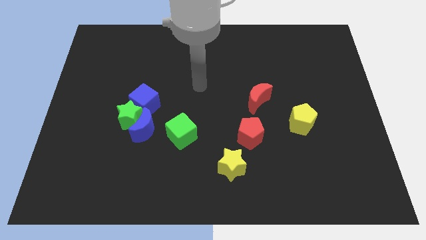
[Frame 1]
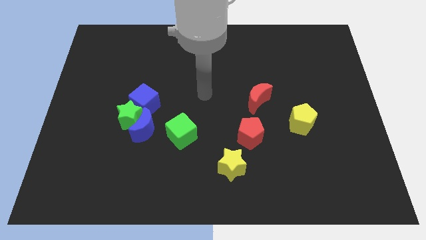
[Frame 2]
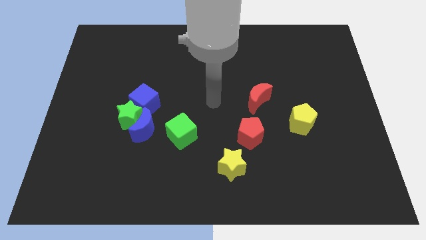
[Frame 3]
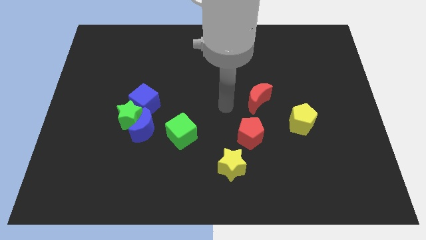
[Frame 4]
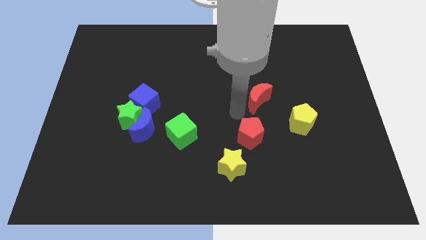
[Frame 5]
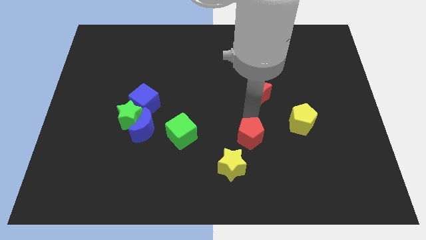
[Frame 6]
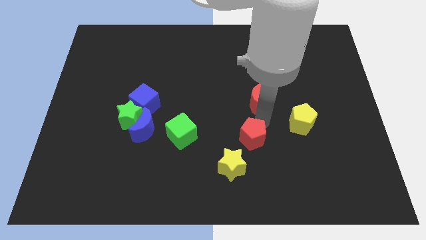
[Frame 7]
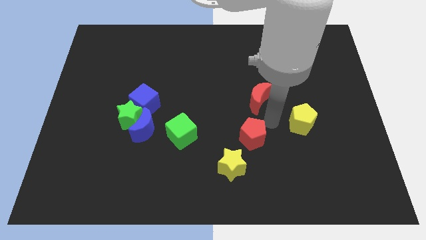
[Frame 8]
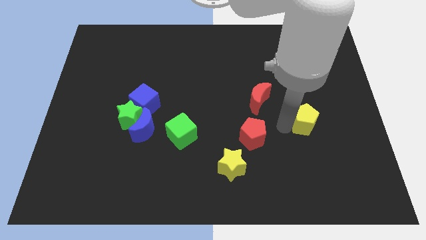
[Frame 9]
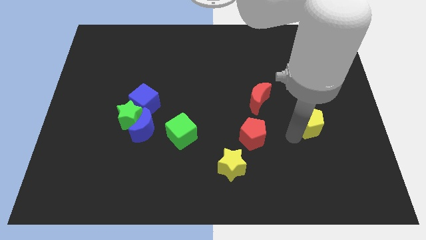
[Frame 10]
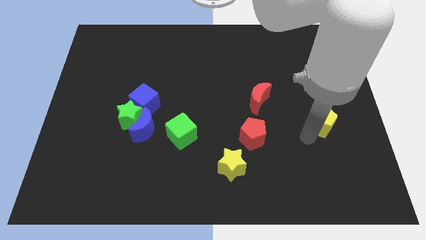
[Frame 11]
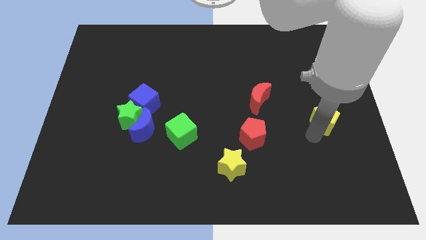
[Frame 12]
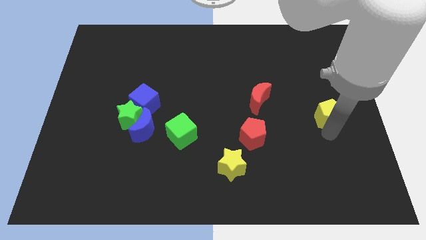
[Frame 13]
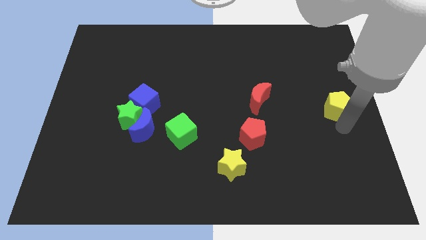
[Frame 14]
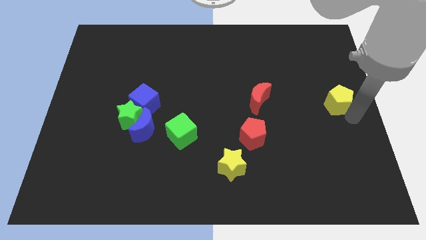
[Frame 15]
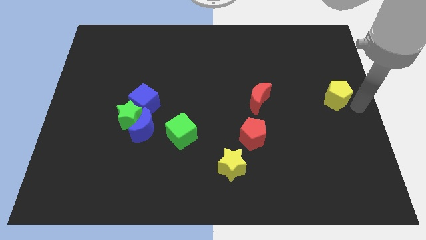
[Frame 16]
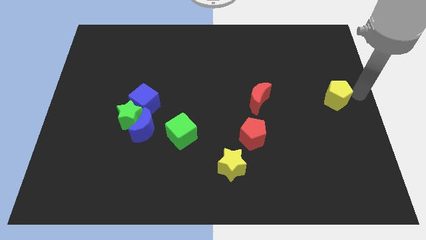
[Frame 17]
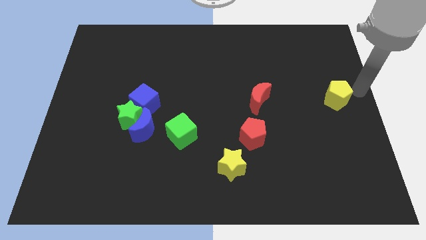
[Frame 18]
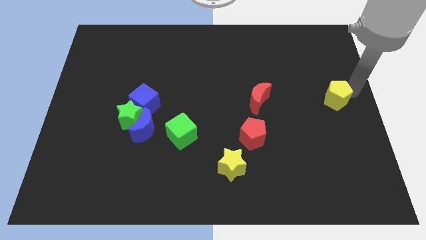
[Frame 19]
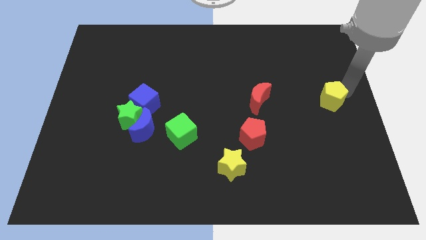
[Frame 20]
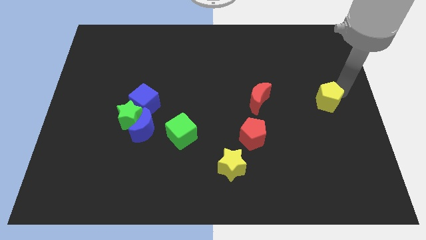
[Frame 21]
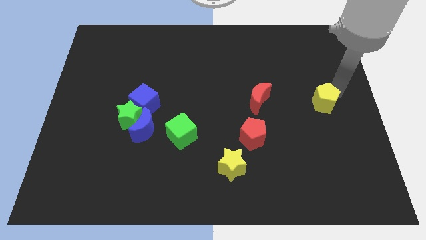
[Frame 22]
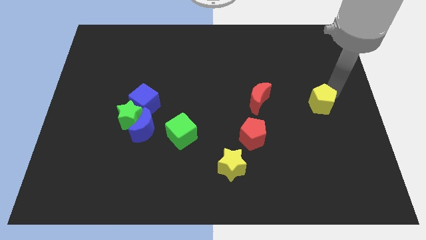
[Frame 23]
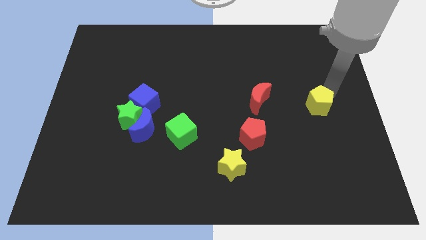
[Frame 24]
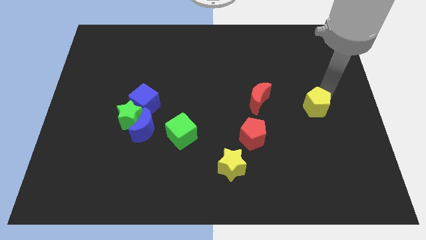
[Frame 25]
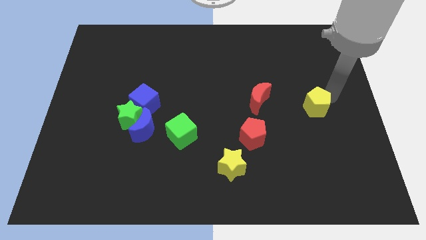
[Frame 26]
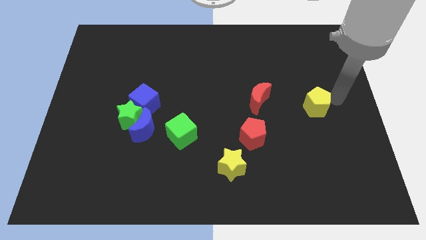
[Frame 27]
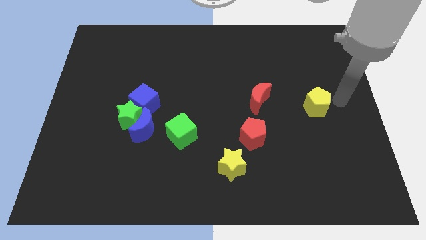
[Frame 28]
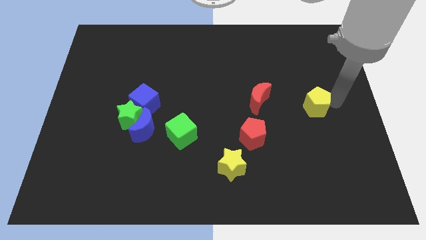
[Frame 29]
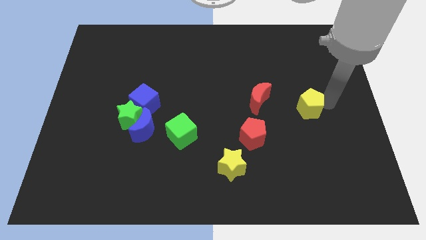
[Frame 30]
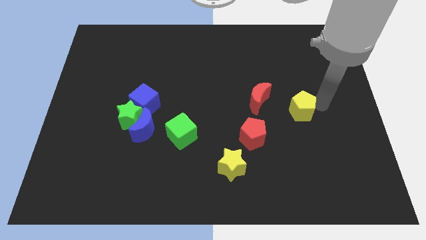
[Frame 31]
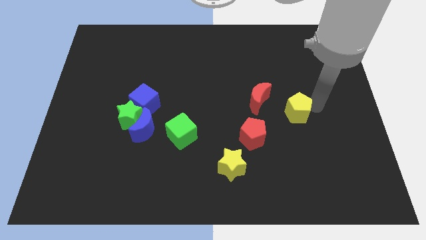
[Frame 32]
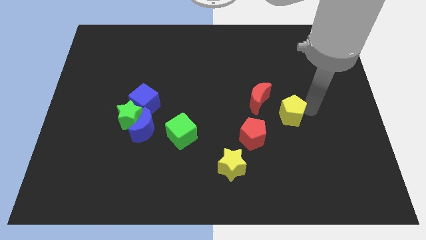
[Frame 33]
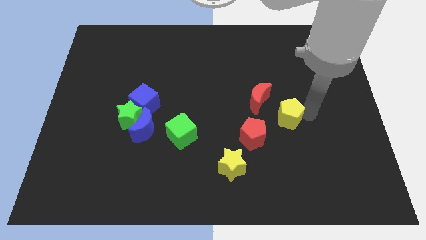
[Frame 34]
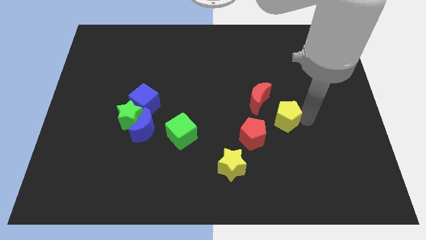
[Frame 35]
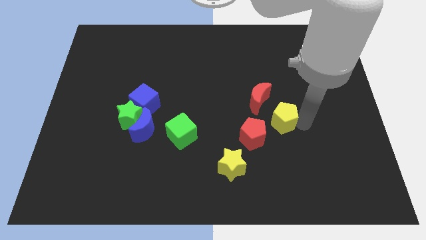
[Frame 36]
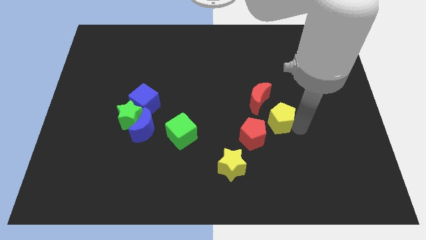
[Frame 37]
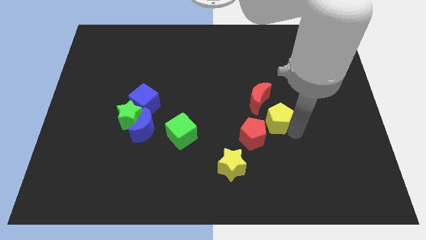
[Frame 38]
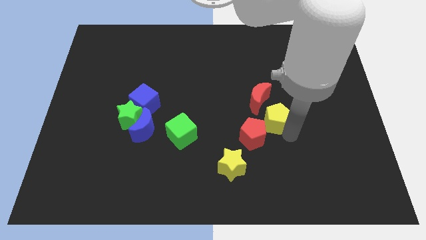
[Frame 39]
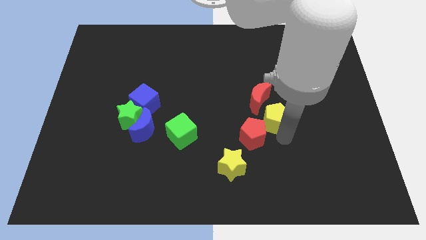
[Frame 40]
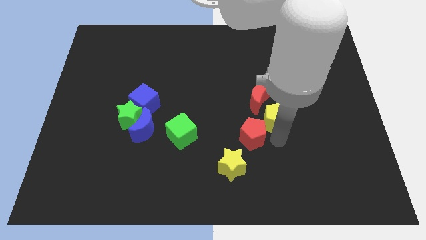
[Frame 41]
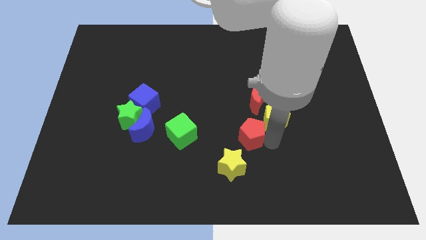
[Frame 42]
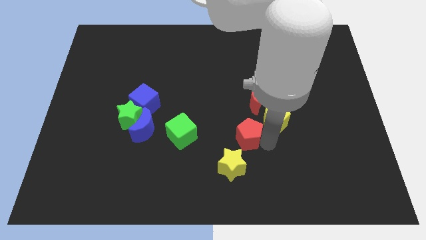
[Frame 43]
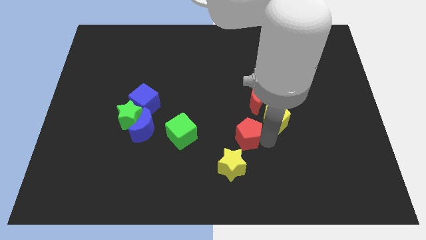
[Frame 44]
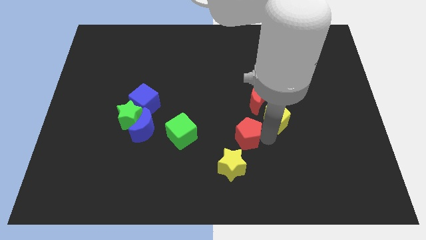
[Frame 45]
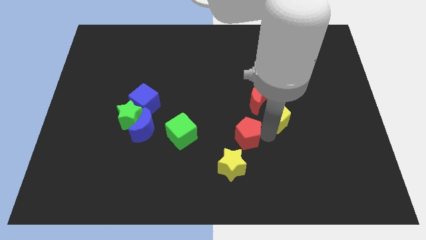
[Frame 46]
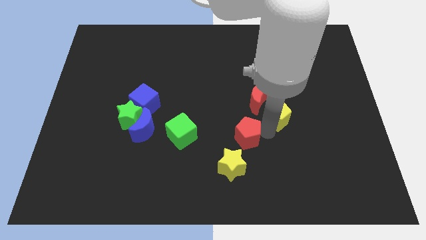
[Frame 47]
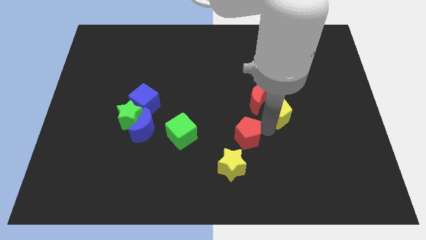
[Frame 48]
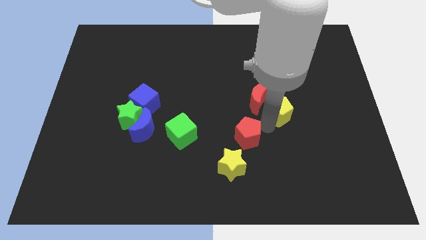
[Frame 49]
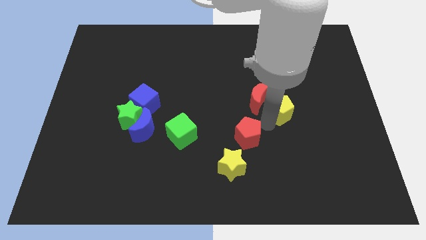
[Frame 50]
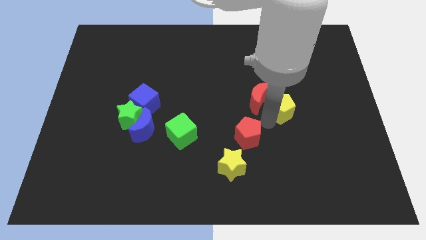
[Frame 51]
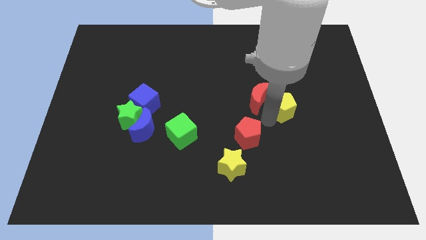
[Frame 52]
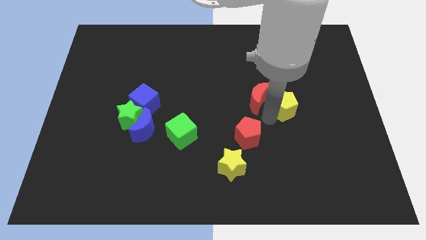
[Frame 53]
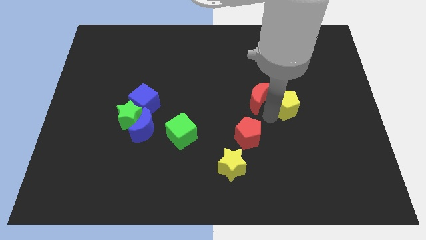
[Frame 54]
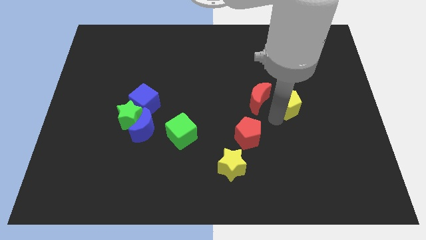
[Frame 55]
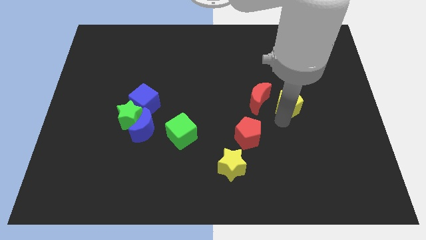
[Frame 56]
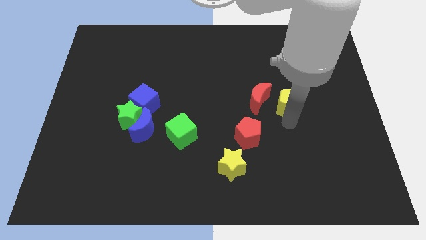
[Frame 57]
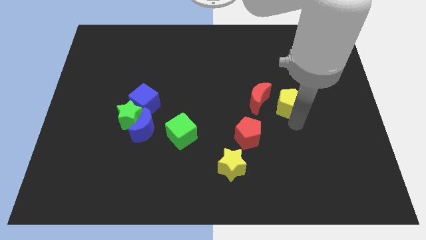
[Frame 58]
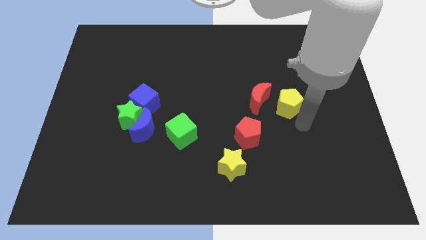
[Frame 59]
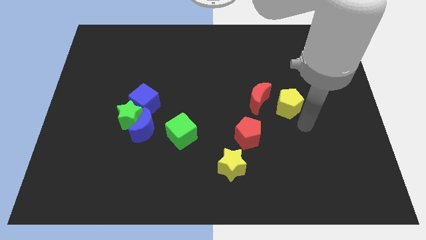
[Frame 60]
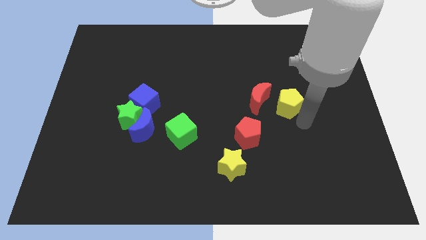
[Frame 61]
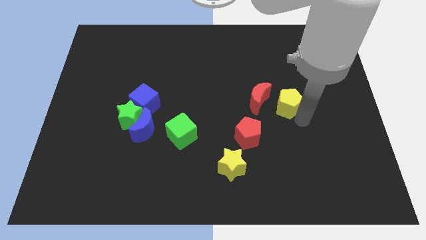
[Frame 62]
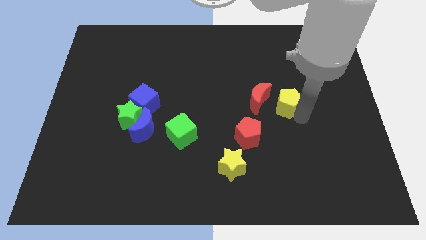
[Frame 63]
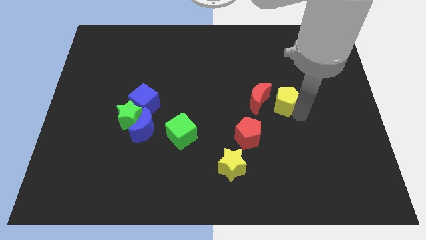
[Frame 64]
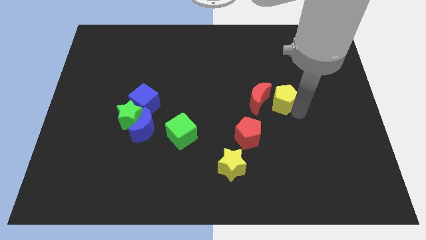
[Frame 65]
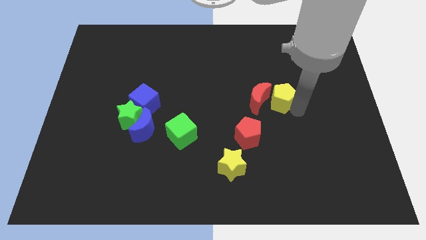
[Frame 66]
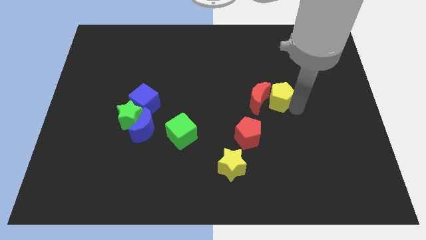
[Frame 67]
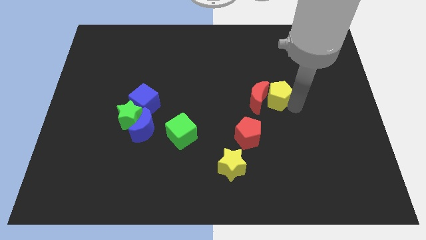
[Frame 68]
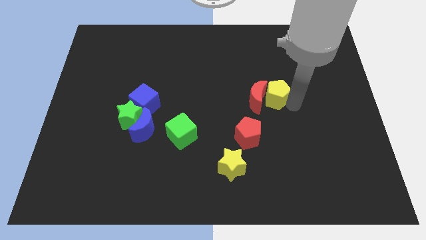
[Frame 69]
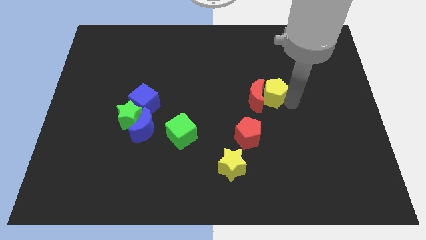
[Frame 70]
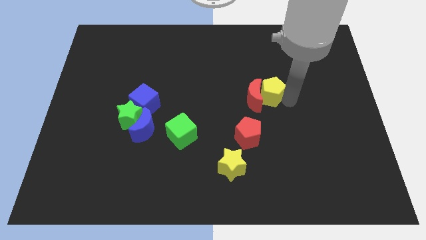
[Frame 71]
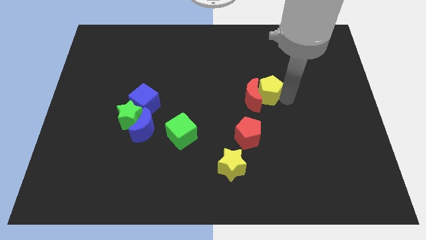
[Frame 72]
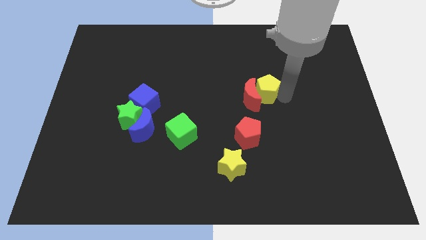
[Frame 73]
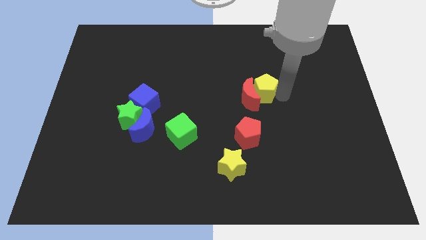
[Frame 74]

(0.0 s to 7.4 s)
put the yellow pentagon above the red pentagon

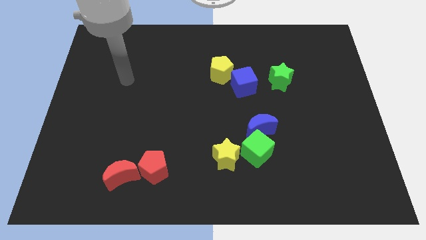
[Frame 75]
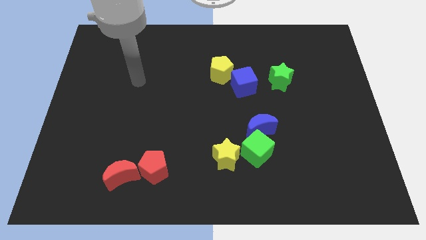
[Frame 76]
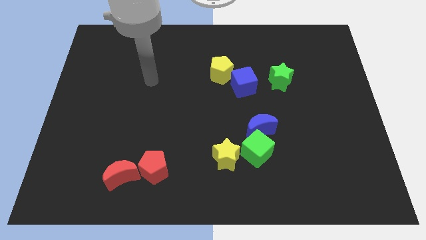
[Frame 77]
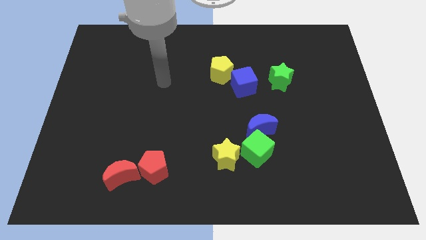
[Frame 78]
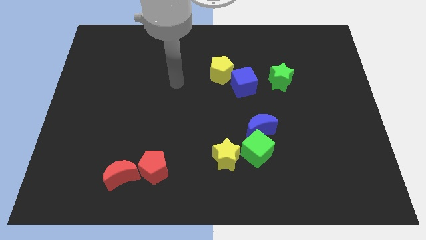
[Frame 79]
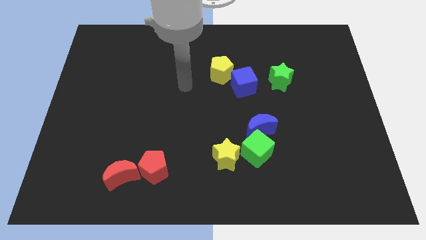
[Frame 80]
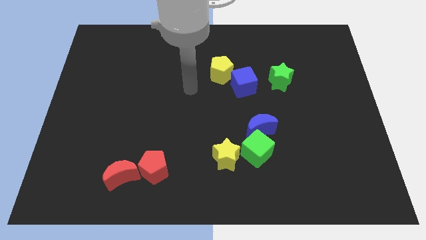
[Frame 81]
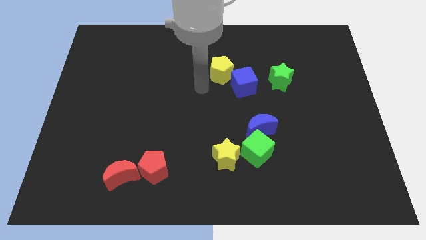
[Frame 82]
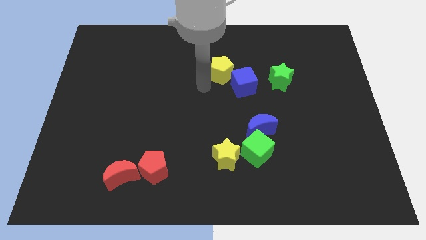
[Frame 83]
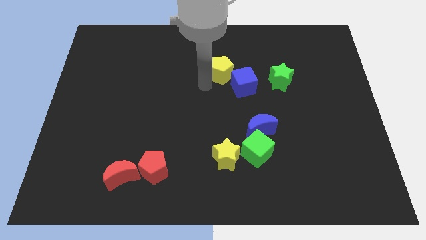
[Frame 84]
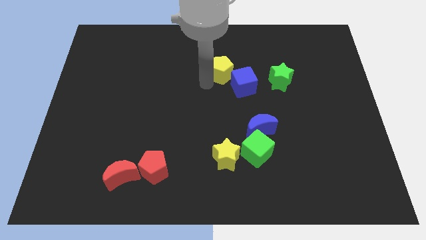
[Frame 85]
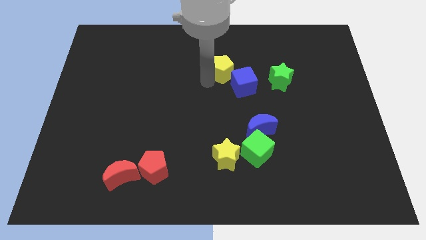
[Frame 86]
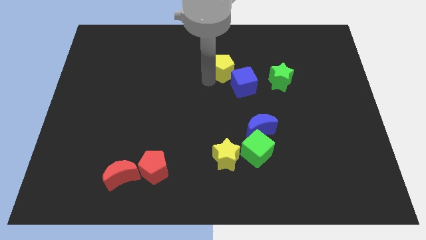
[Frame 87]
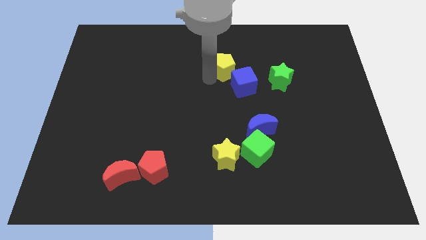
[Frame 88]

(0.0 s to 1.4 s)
move the yellow pentagon to the top side of the blue cube
